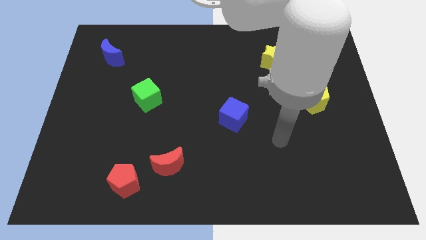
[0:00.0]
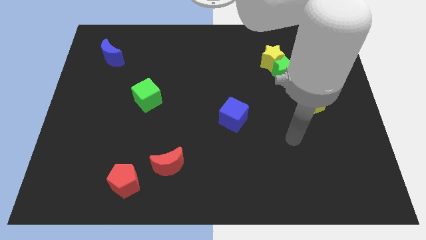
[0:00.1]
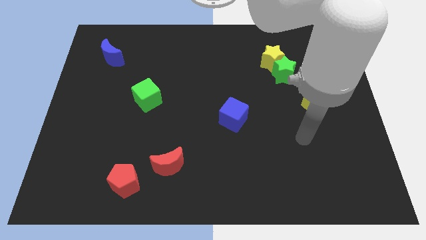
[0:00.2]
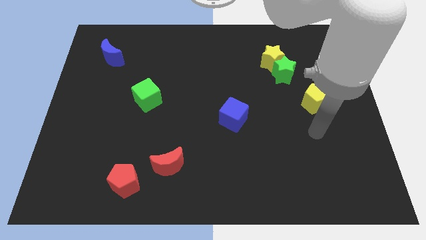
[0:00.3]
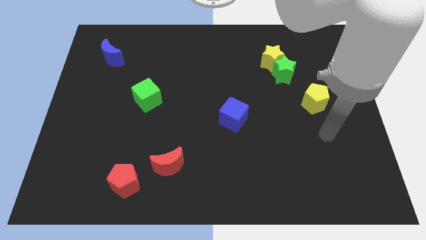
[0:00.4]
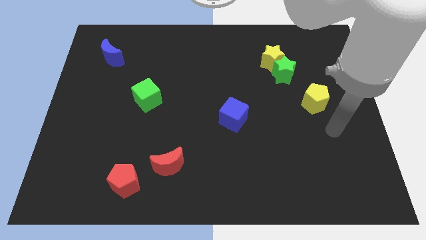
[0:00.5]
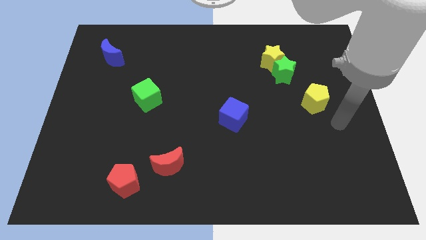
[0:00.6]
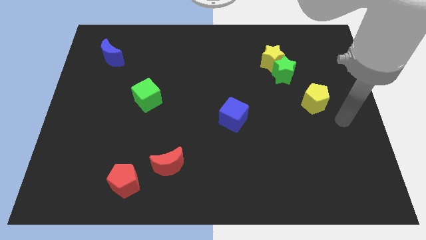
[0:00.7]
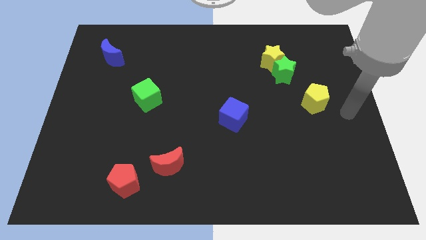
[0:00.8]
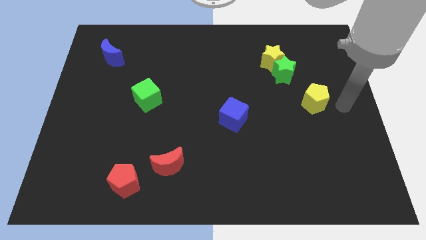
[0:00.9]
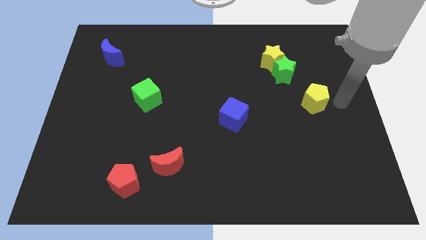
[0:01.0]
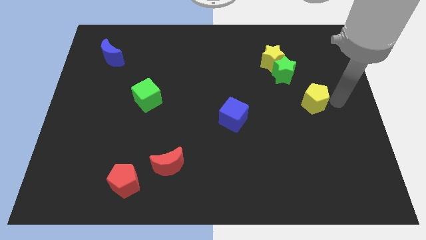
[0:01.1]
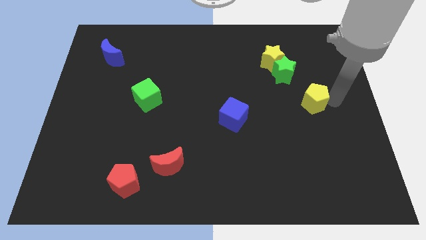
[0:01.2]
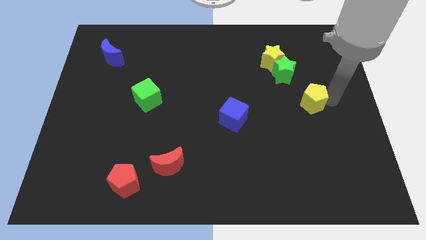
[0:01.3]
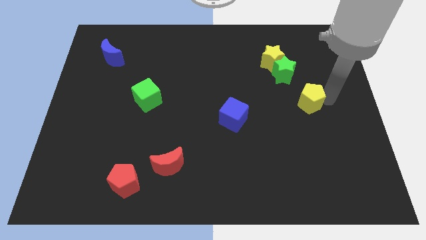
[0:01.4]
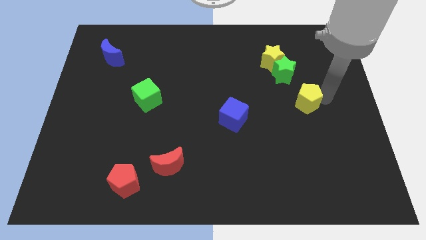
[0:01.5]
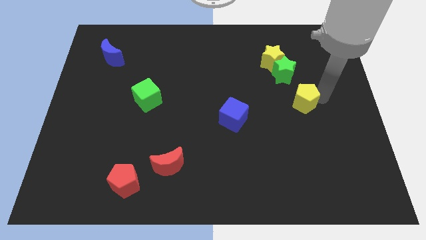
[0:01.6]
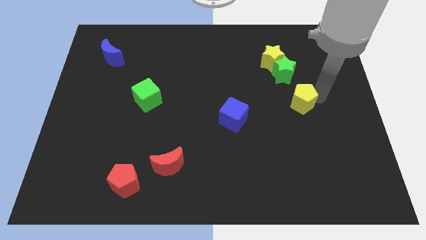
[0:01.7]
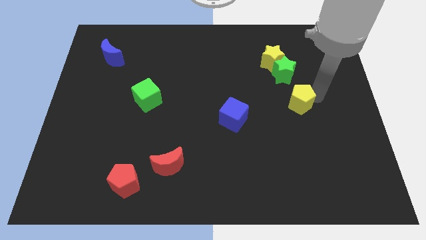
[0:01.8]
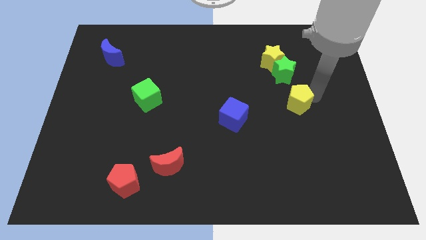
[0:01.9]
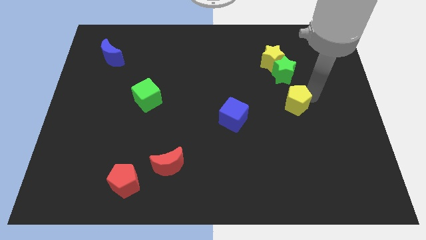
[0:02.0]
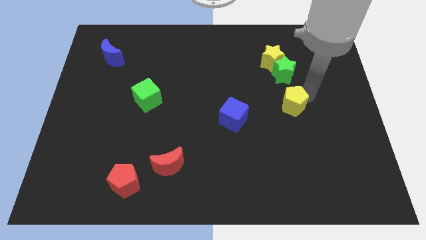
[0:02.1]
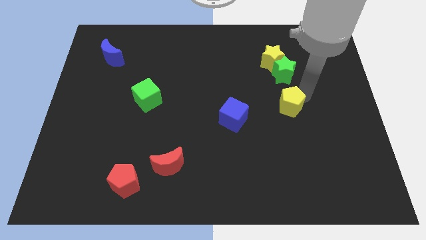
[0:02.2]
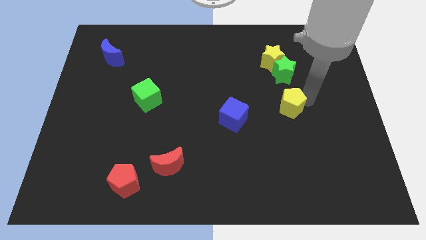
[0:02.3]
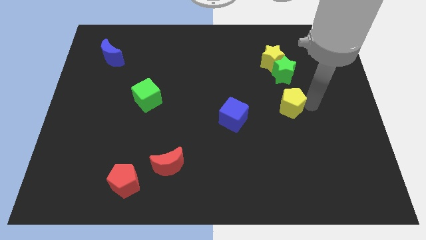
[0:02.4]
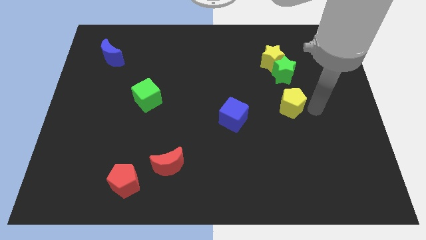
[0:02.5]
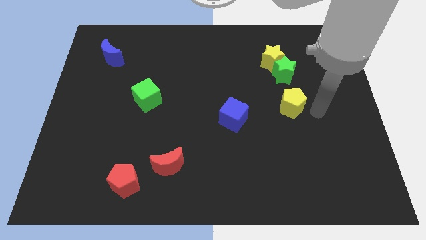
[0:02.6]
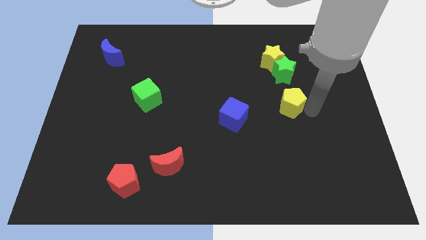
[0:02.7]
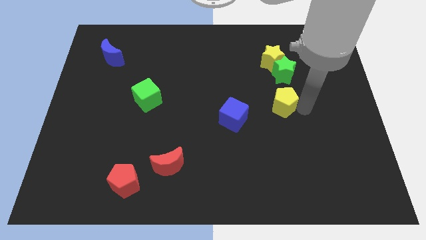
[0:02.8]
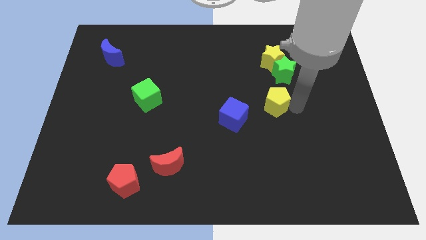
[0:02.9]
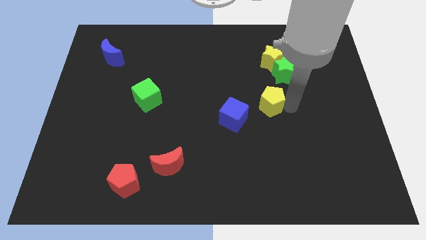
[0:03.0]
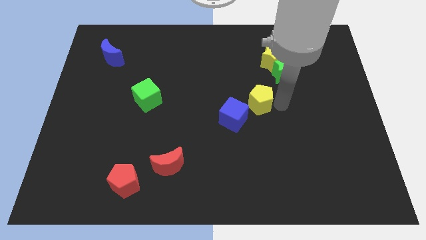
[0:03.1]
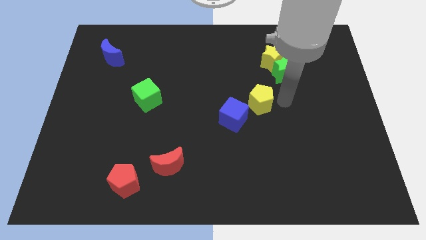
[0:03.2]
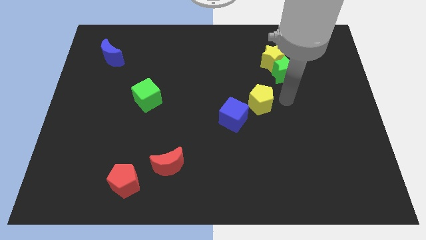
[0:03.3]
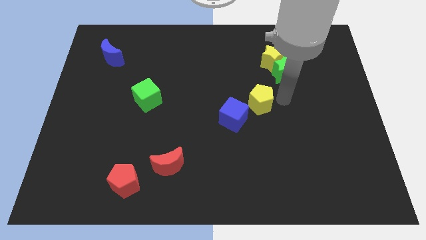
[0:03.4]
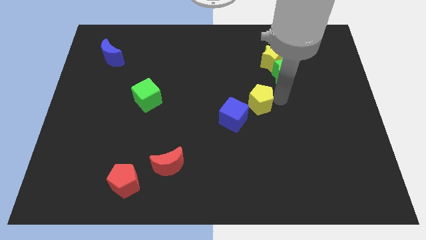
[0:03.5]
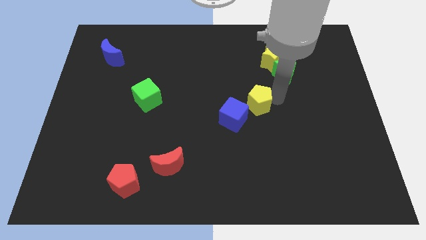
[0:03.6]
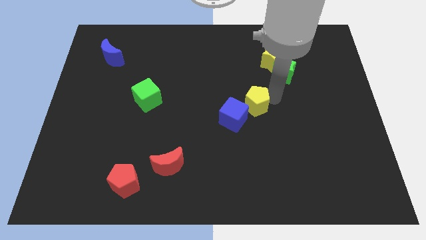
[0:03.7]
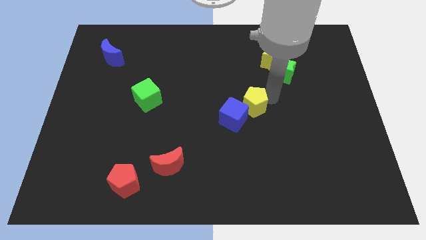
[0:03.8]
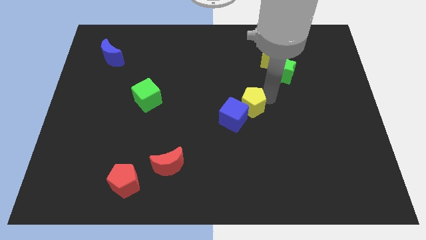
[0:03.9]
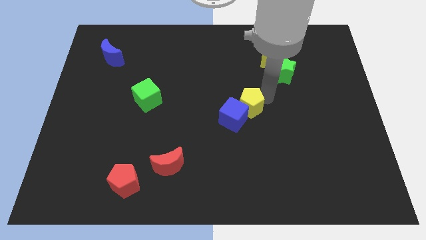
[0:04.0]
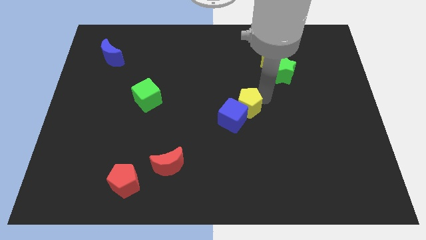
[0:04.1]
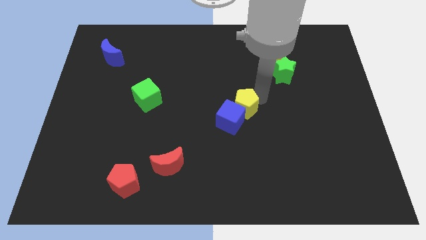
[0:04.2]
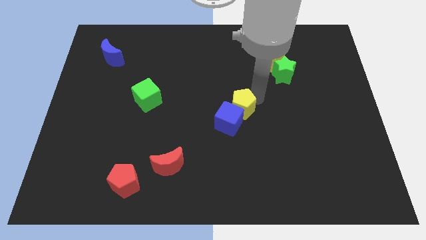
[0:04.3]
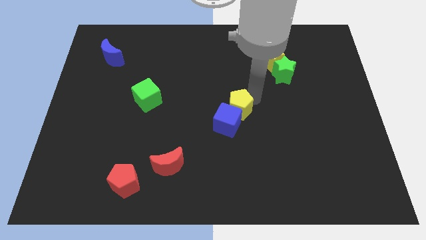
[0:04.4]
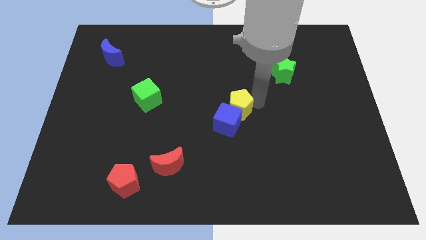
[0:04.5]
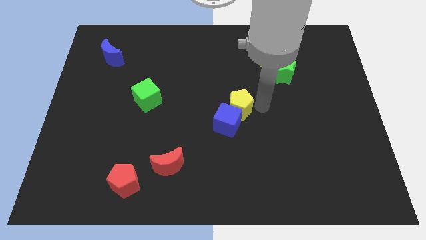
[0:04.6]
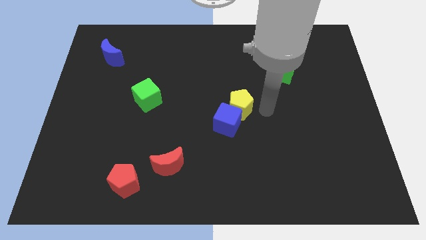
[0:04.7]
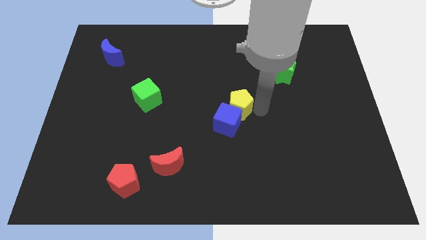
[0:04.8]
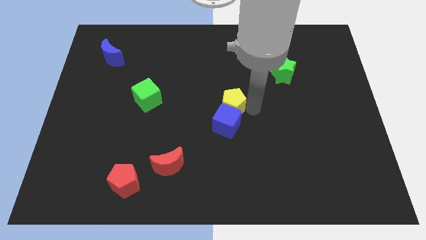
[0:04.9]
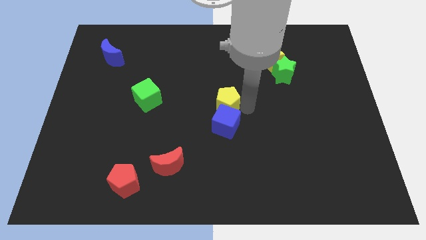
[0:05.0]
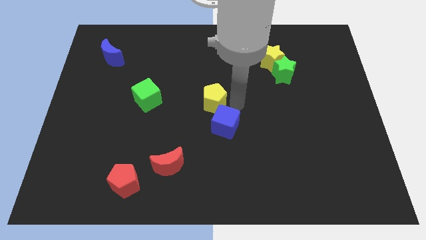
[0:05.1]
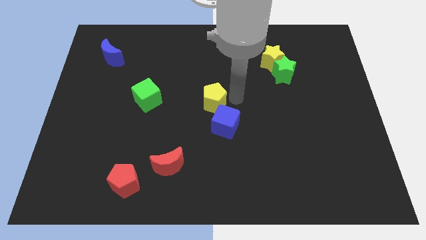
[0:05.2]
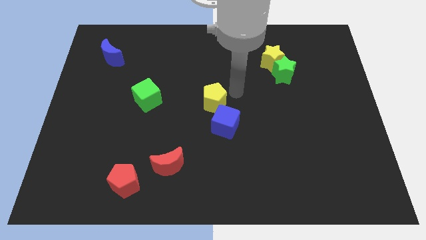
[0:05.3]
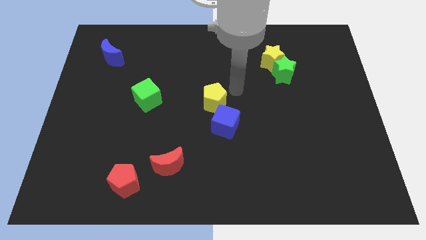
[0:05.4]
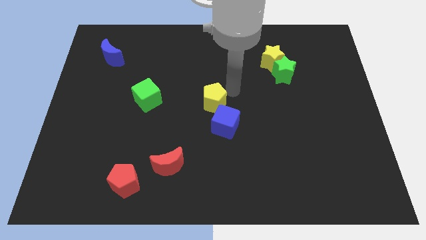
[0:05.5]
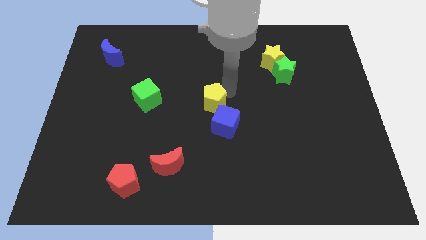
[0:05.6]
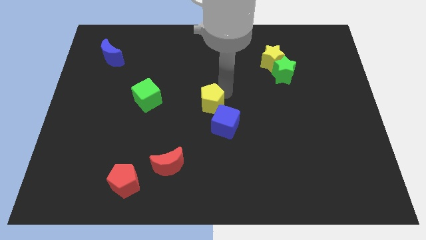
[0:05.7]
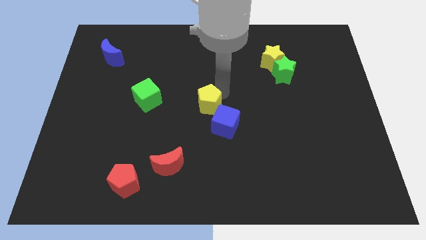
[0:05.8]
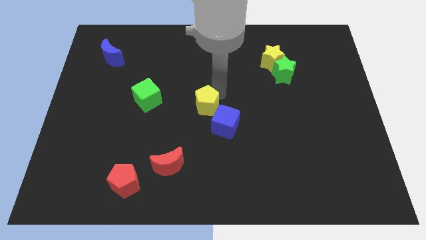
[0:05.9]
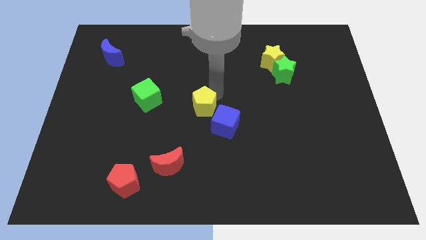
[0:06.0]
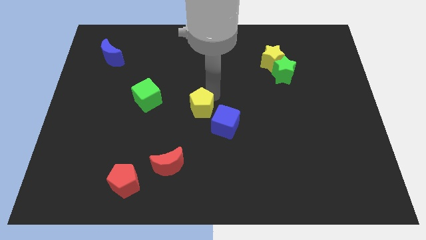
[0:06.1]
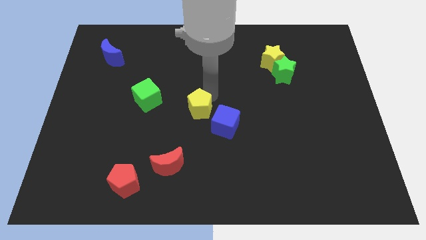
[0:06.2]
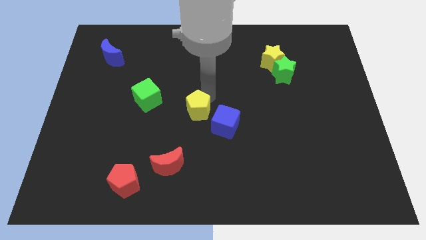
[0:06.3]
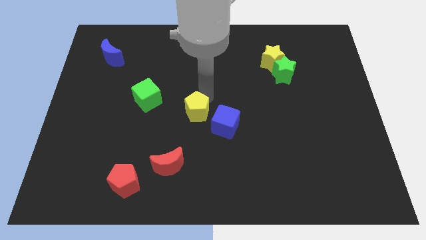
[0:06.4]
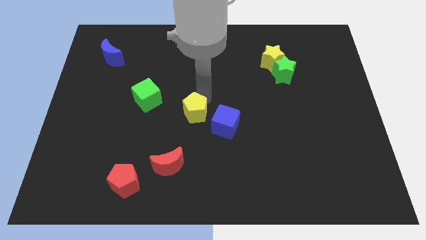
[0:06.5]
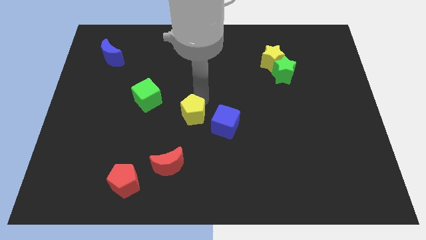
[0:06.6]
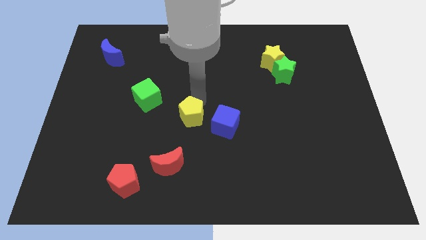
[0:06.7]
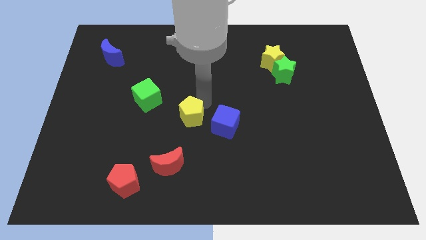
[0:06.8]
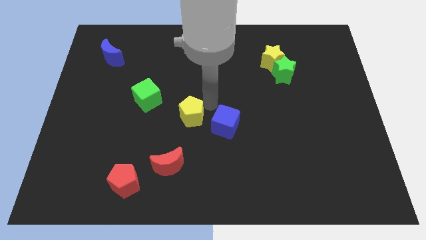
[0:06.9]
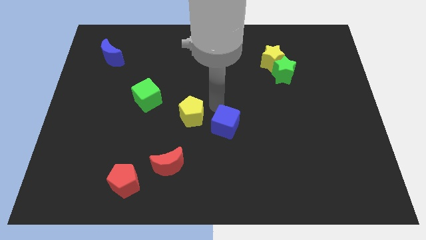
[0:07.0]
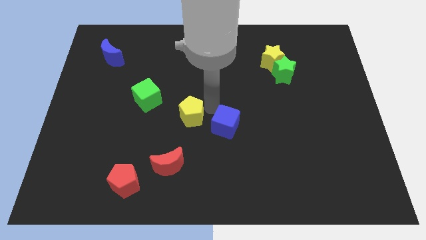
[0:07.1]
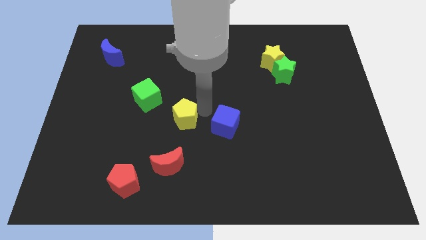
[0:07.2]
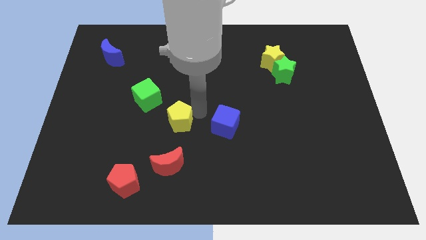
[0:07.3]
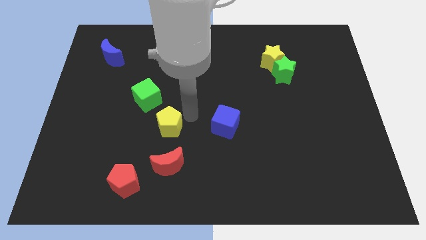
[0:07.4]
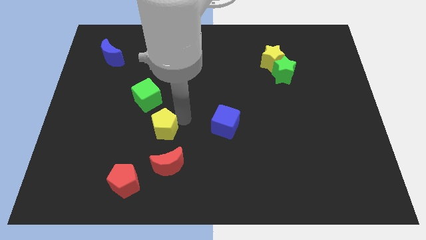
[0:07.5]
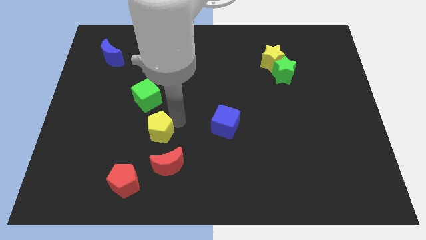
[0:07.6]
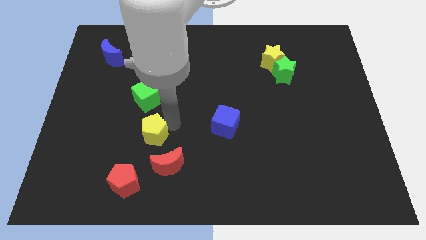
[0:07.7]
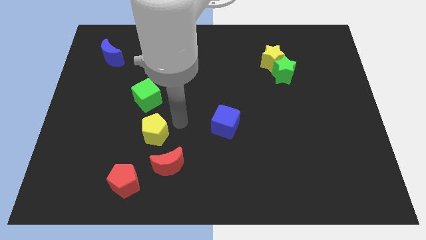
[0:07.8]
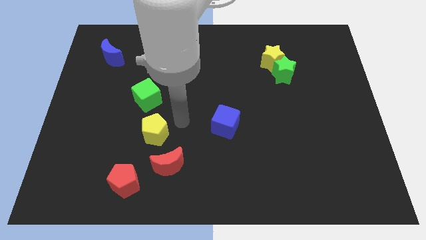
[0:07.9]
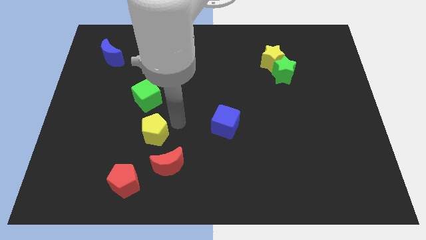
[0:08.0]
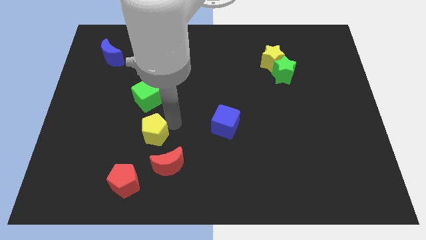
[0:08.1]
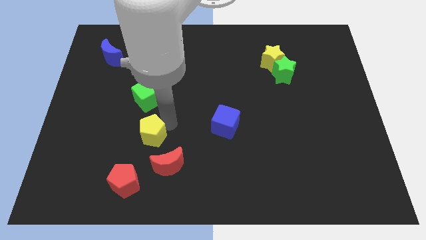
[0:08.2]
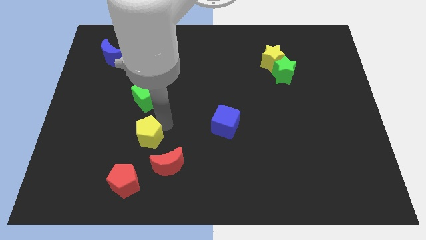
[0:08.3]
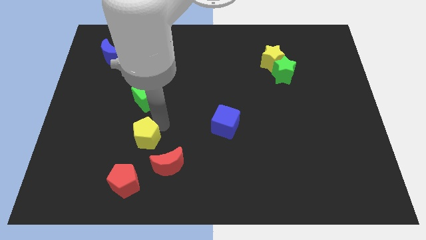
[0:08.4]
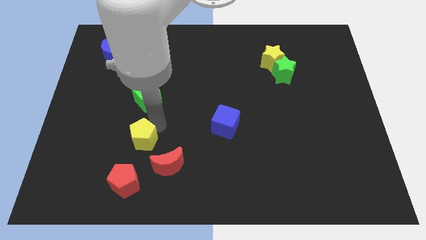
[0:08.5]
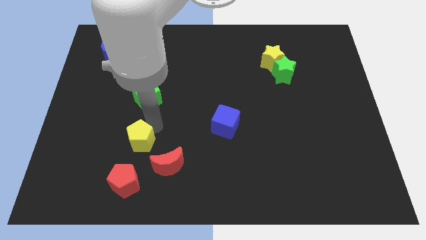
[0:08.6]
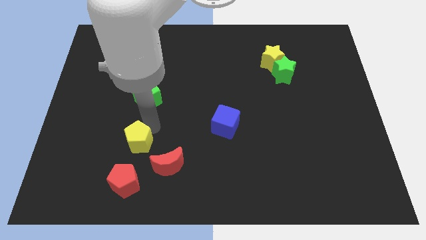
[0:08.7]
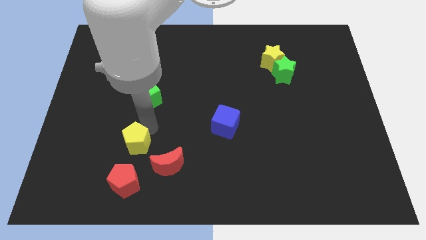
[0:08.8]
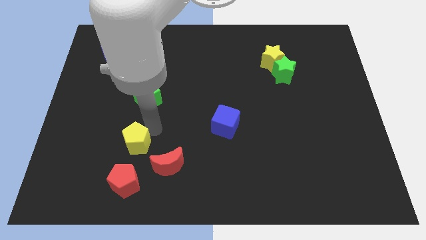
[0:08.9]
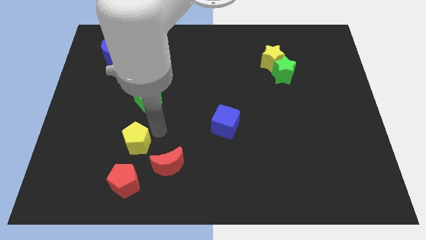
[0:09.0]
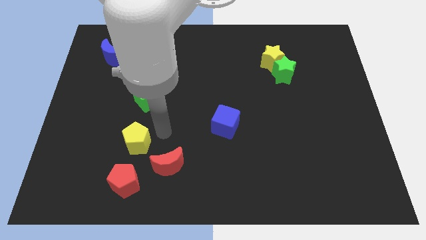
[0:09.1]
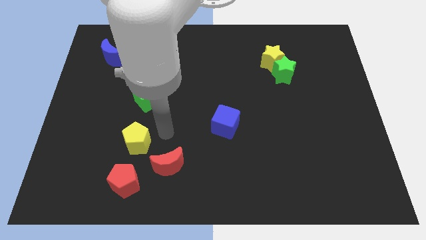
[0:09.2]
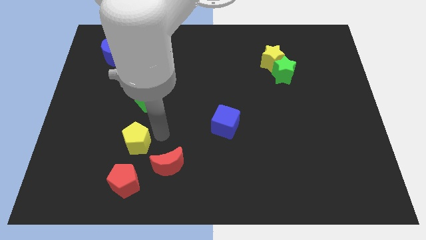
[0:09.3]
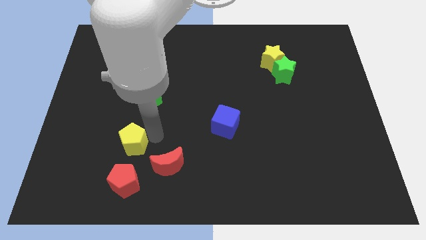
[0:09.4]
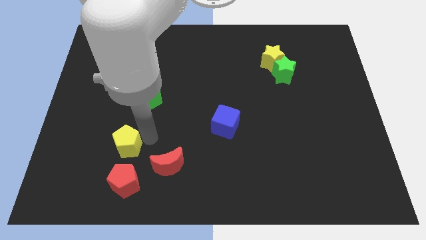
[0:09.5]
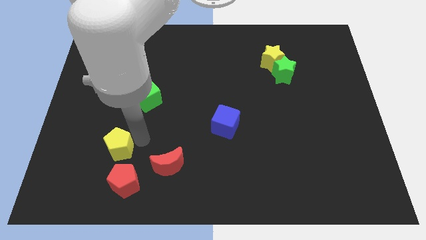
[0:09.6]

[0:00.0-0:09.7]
slide the yellow pentagon to the top left of the red pentagon
